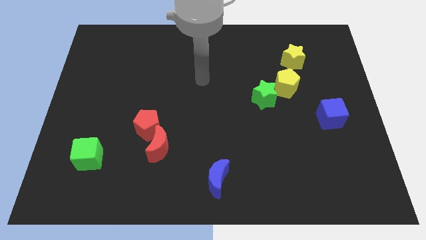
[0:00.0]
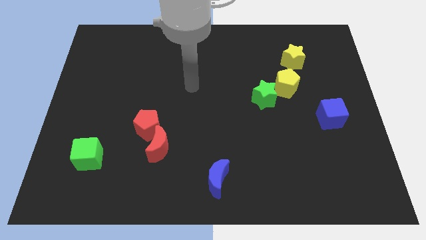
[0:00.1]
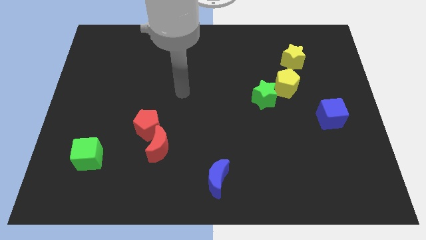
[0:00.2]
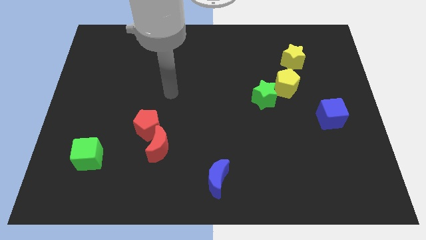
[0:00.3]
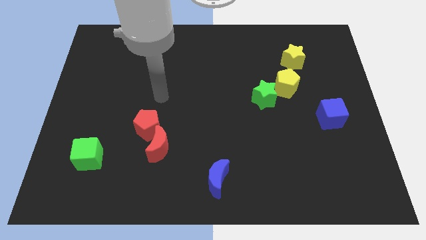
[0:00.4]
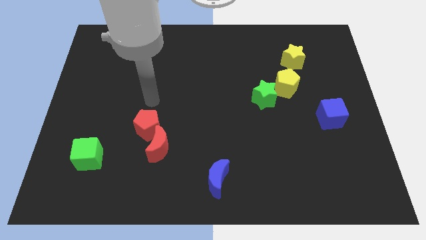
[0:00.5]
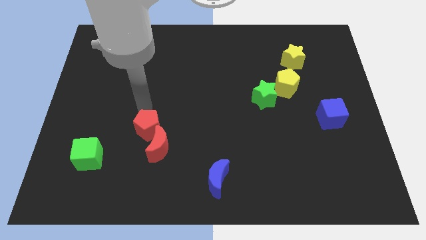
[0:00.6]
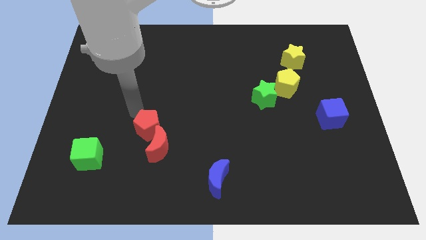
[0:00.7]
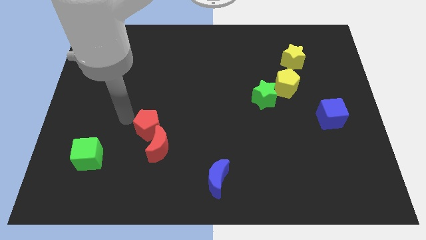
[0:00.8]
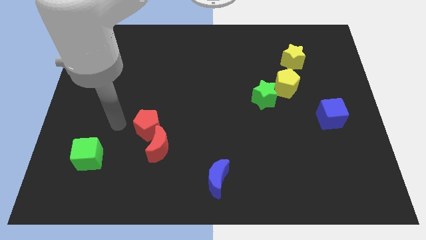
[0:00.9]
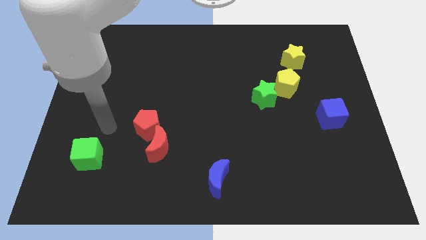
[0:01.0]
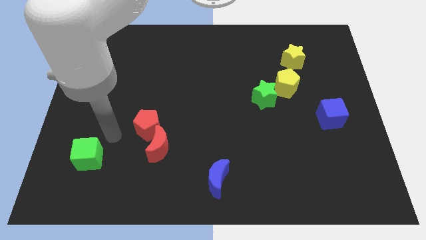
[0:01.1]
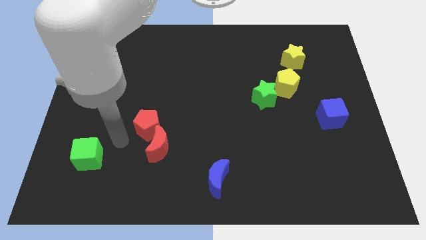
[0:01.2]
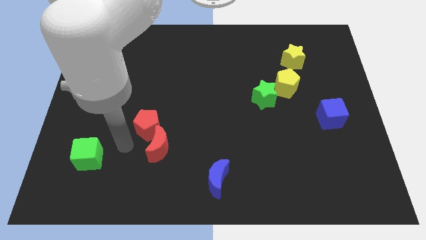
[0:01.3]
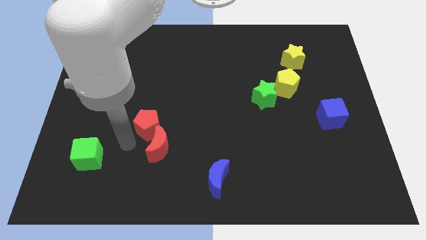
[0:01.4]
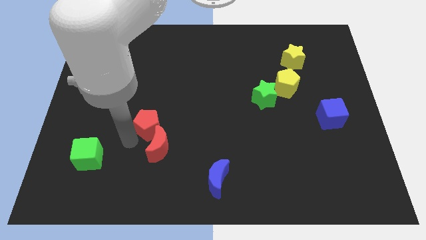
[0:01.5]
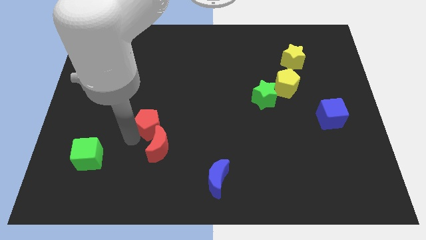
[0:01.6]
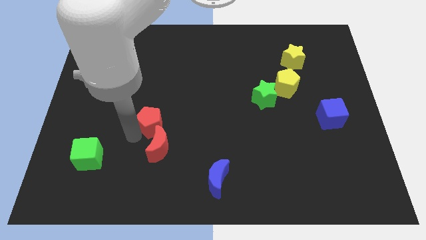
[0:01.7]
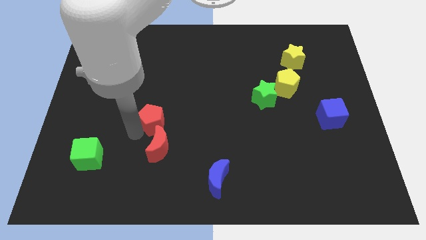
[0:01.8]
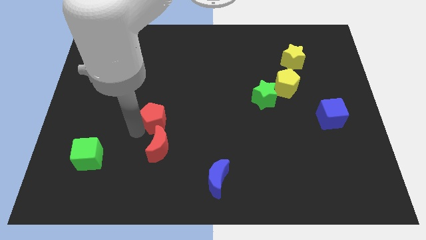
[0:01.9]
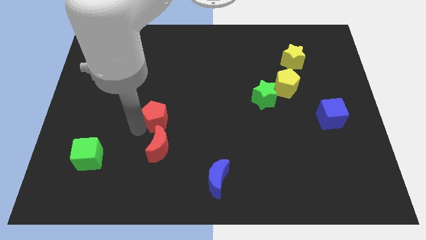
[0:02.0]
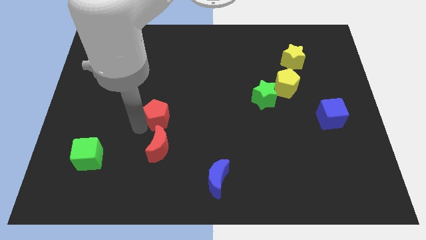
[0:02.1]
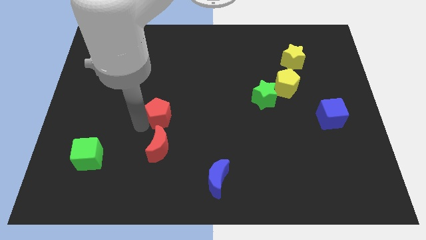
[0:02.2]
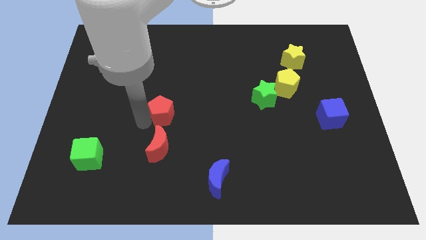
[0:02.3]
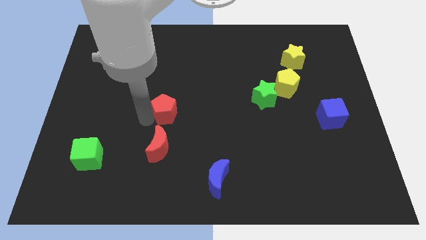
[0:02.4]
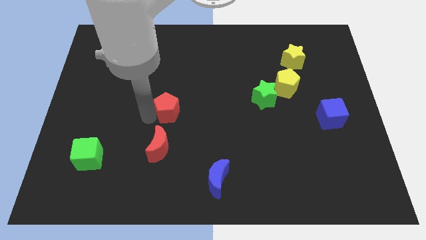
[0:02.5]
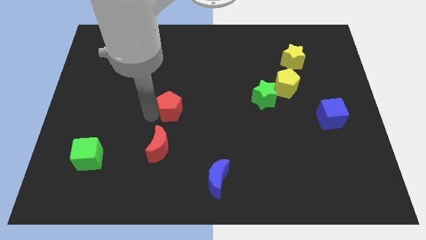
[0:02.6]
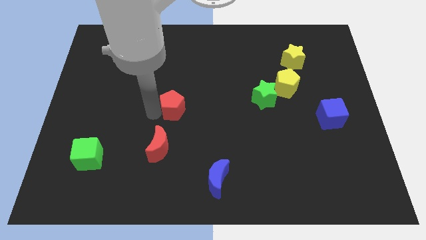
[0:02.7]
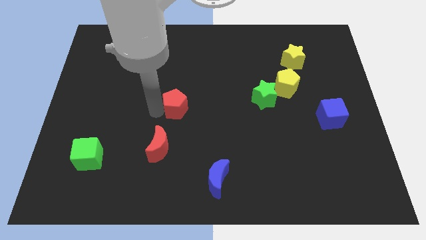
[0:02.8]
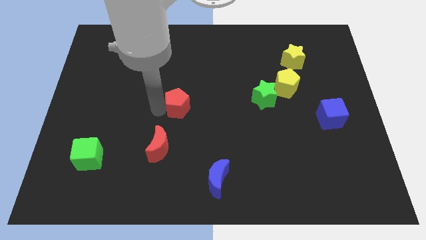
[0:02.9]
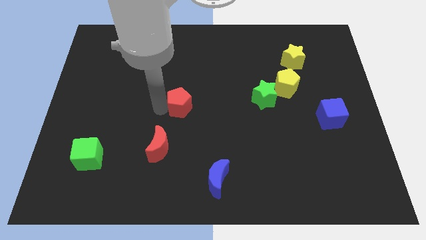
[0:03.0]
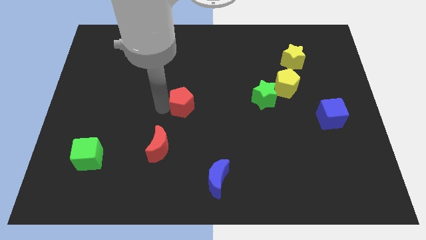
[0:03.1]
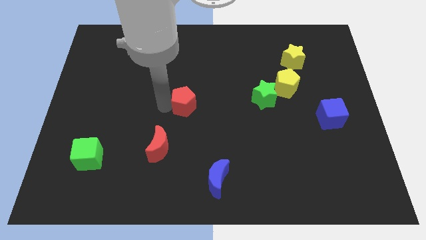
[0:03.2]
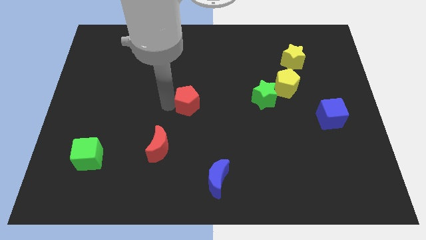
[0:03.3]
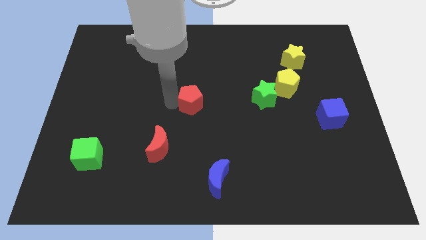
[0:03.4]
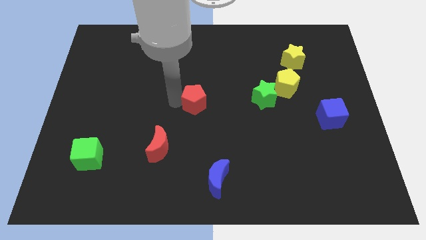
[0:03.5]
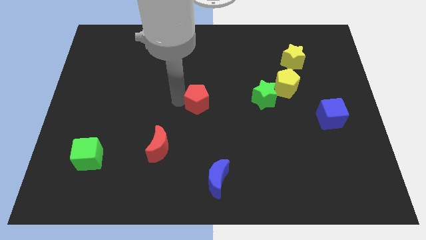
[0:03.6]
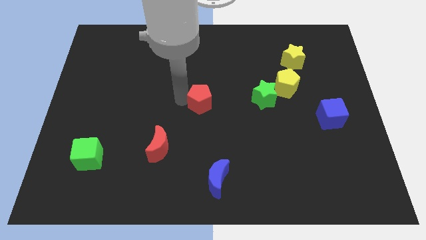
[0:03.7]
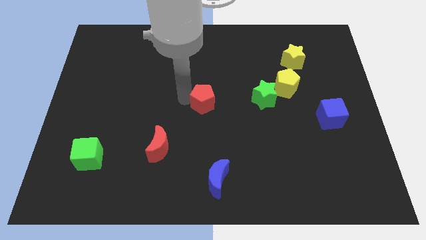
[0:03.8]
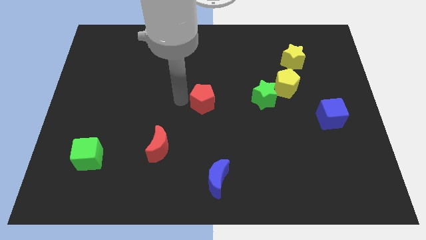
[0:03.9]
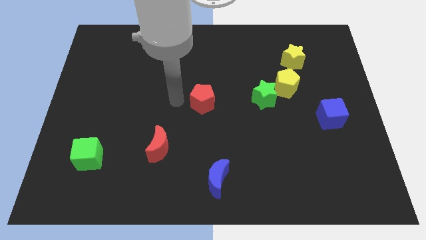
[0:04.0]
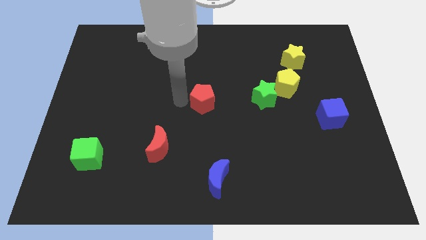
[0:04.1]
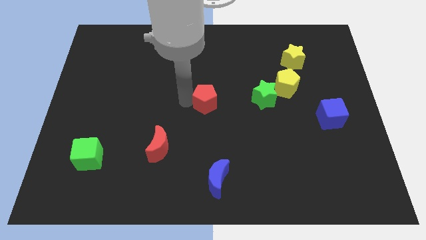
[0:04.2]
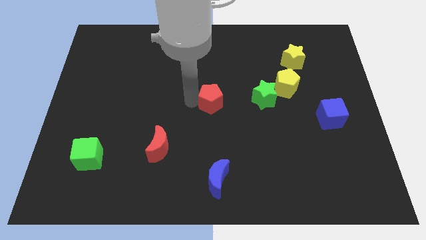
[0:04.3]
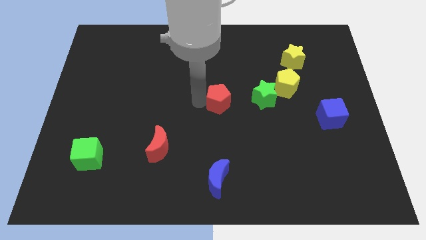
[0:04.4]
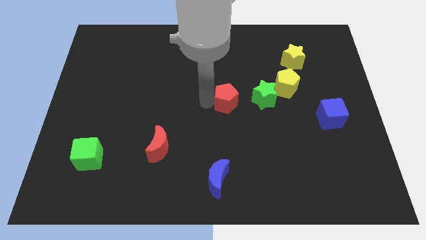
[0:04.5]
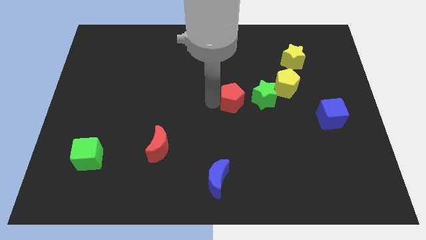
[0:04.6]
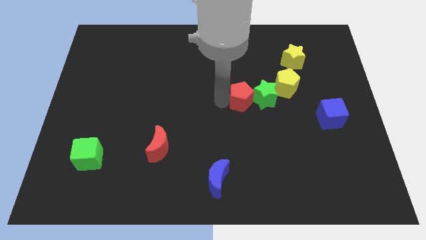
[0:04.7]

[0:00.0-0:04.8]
move the red pentagon next to the green star

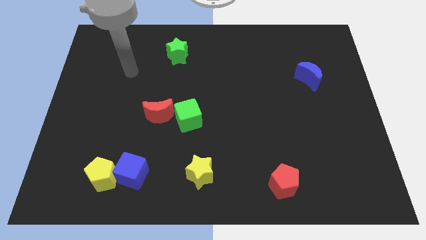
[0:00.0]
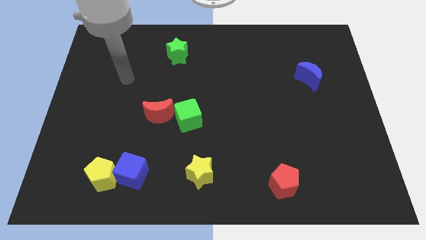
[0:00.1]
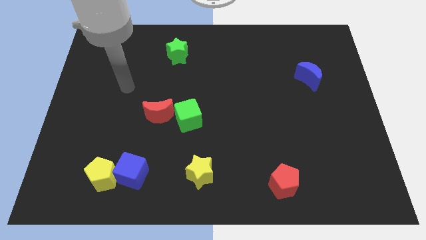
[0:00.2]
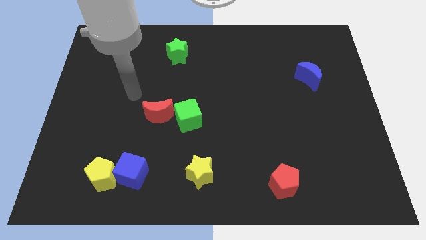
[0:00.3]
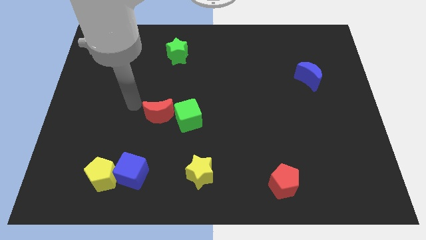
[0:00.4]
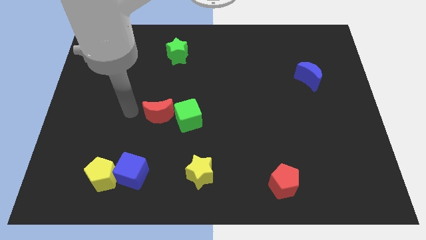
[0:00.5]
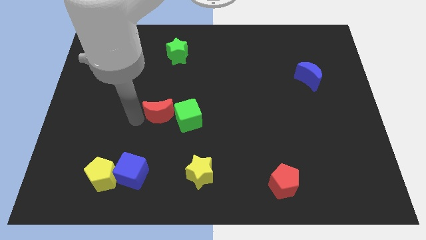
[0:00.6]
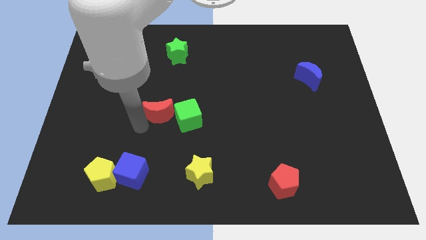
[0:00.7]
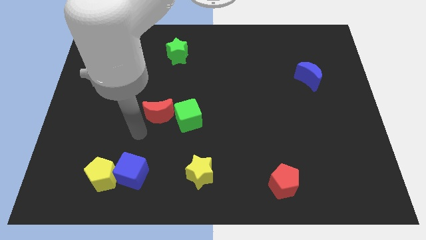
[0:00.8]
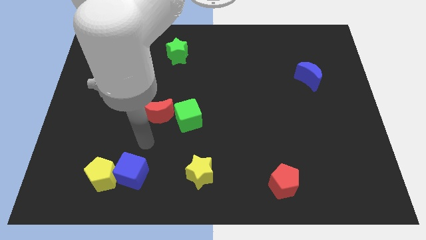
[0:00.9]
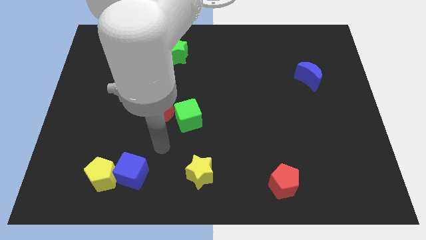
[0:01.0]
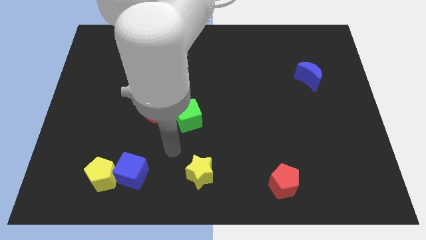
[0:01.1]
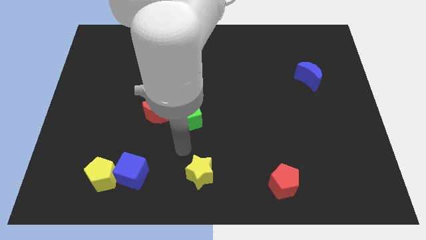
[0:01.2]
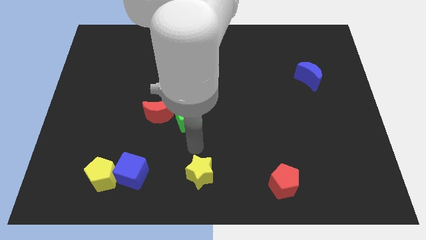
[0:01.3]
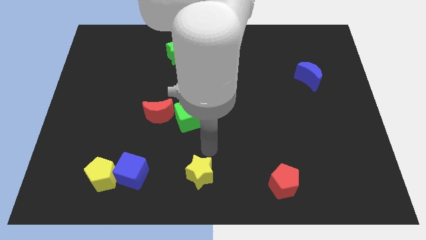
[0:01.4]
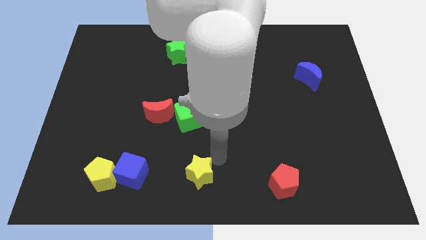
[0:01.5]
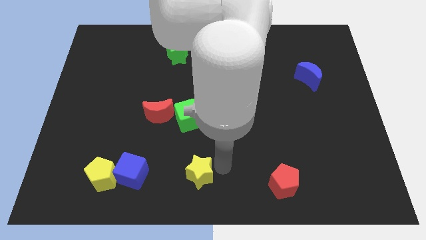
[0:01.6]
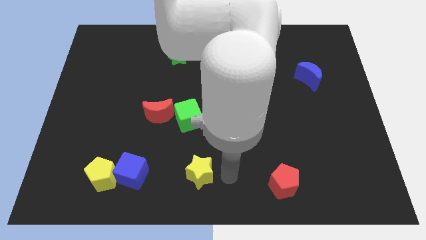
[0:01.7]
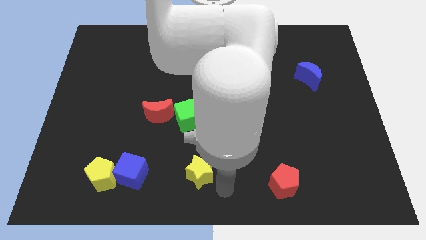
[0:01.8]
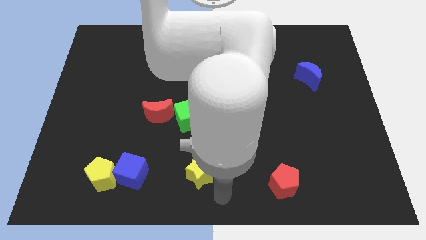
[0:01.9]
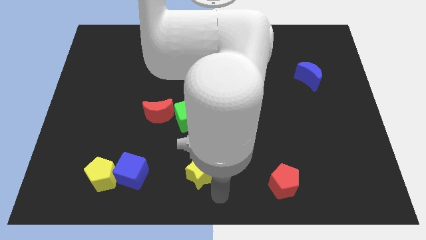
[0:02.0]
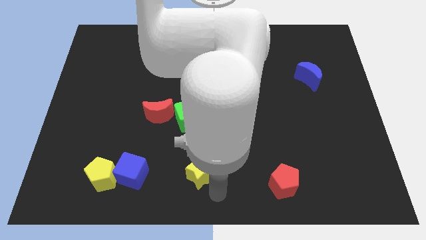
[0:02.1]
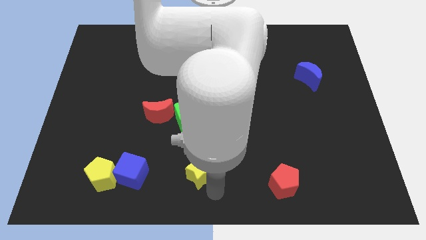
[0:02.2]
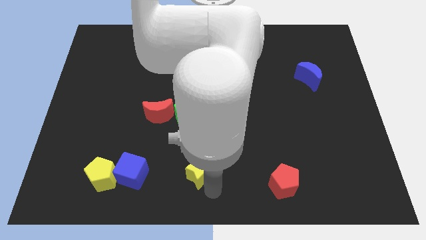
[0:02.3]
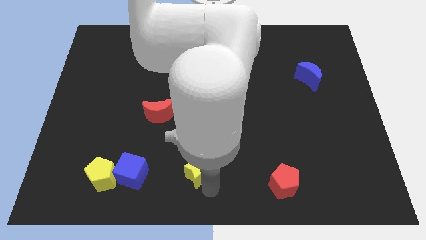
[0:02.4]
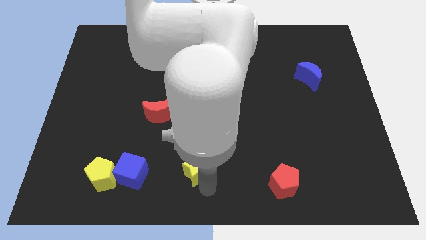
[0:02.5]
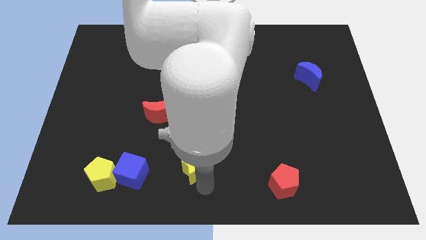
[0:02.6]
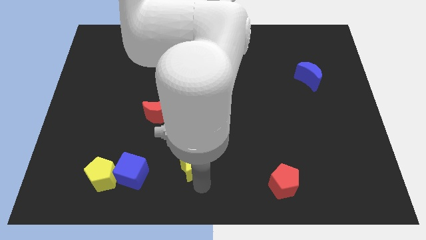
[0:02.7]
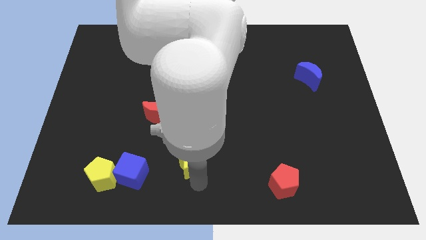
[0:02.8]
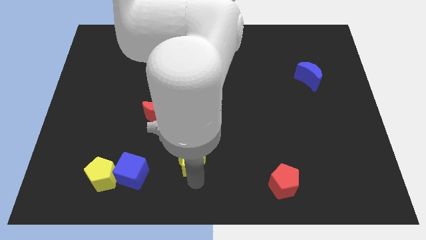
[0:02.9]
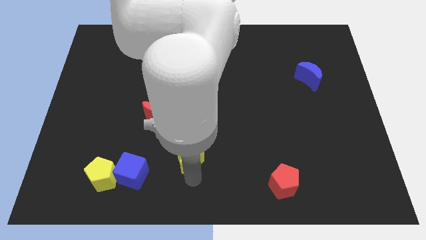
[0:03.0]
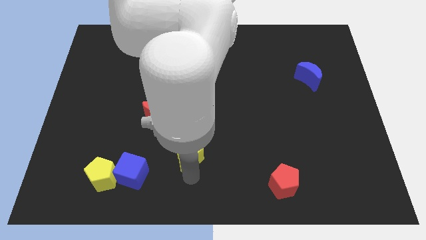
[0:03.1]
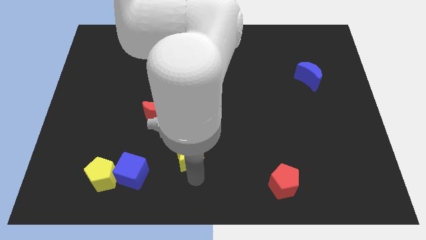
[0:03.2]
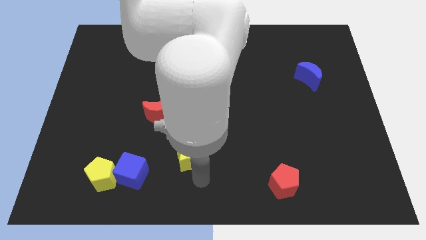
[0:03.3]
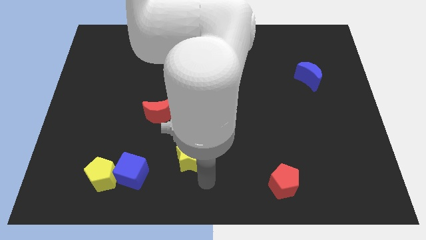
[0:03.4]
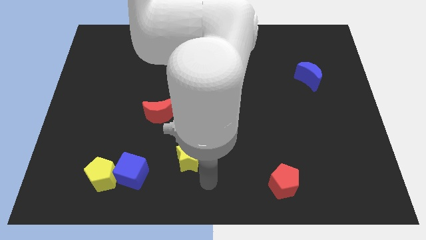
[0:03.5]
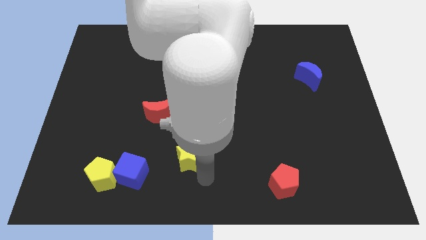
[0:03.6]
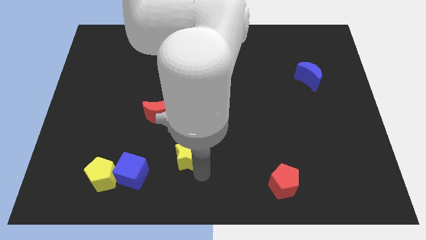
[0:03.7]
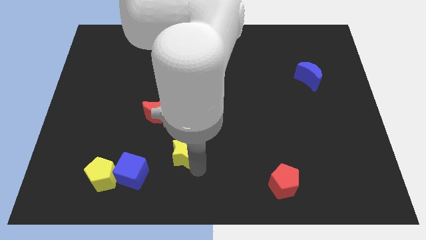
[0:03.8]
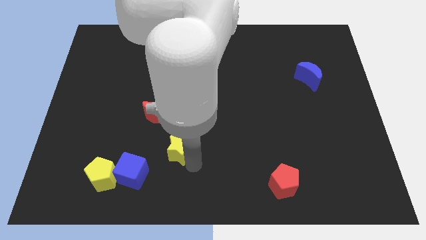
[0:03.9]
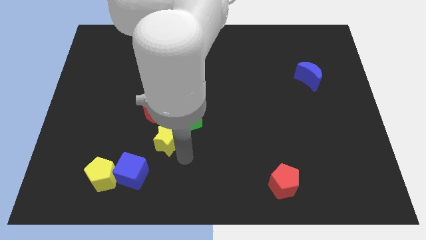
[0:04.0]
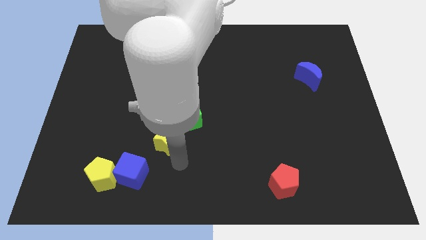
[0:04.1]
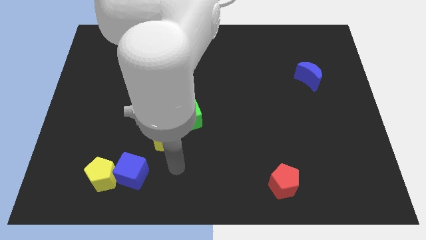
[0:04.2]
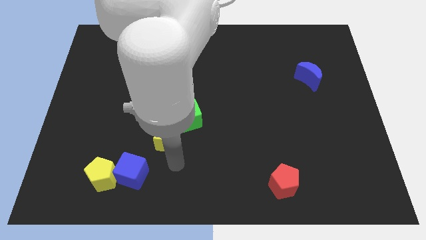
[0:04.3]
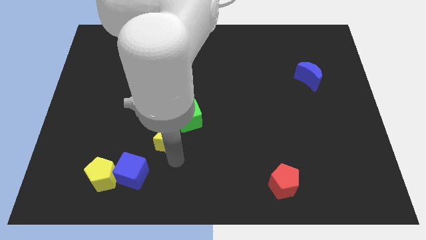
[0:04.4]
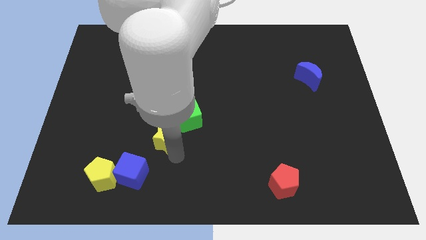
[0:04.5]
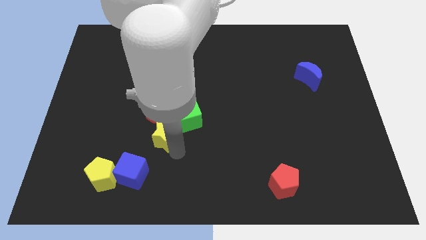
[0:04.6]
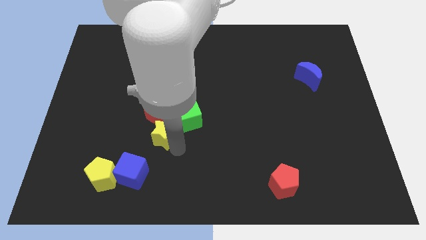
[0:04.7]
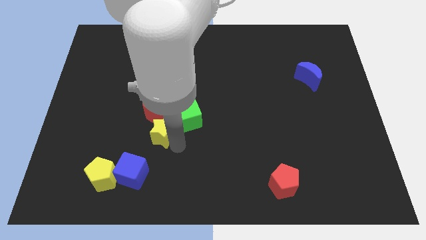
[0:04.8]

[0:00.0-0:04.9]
put the yellow star towards the red moon
